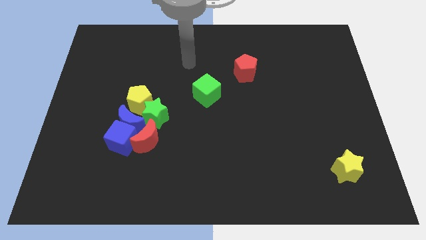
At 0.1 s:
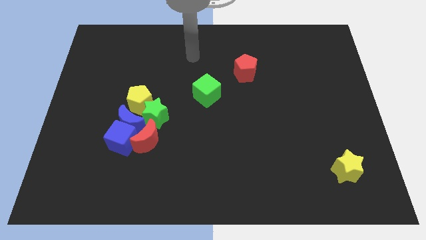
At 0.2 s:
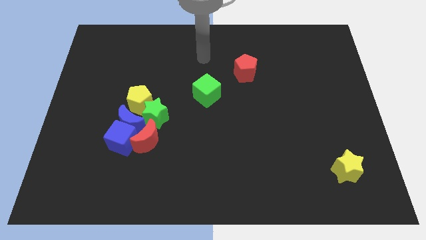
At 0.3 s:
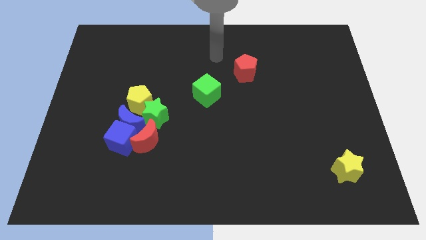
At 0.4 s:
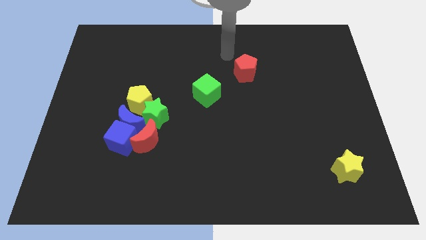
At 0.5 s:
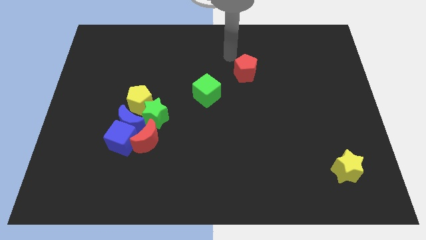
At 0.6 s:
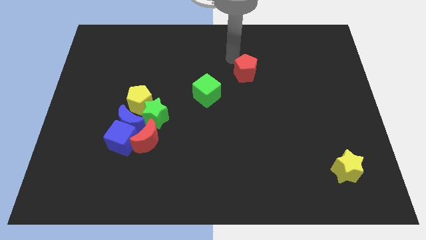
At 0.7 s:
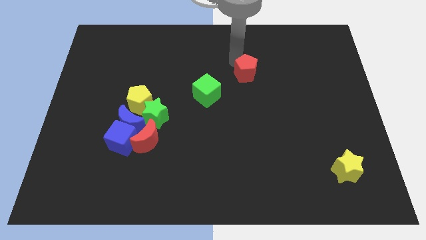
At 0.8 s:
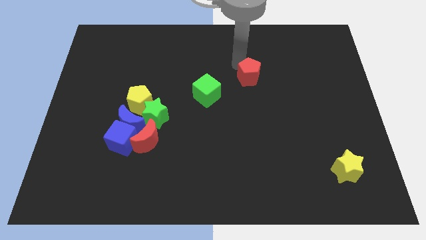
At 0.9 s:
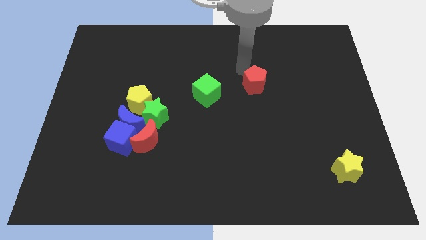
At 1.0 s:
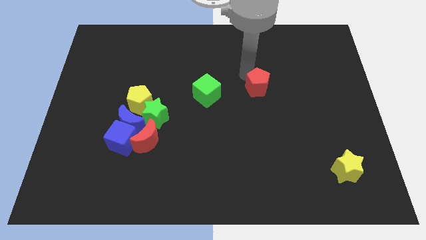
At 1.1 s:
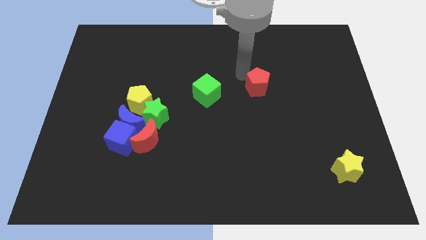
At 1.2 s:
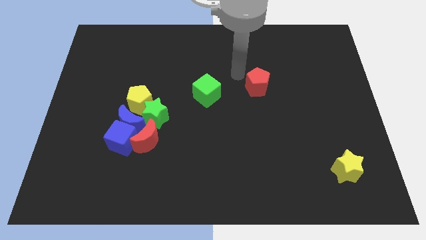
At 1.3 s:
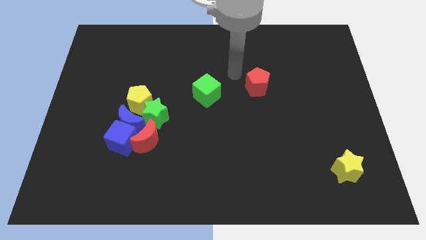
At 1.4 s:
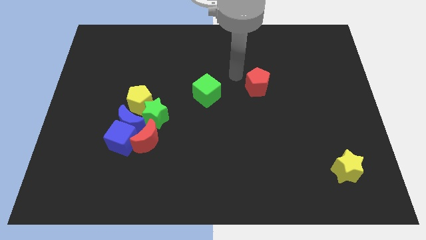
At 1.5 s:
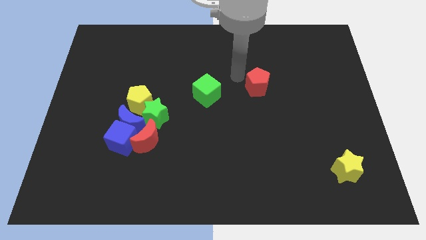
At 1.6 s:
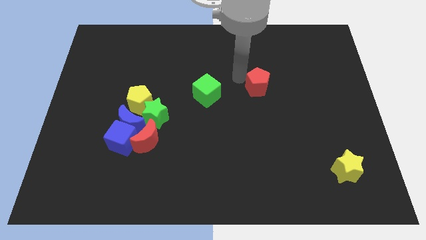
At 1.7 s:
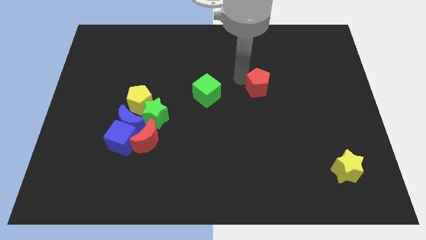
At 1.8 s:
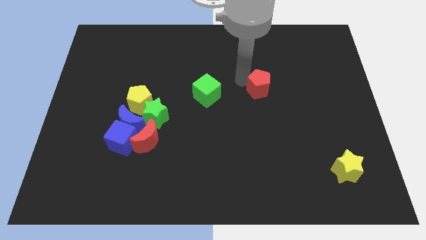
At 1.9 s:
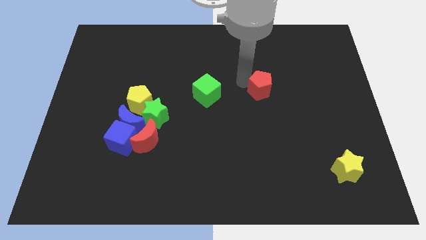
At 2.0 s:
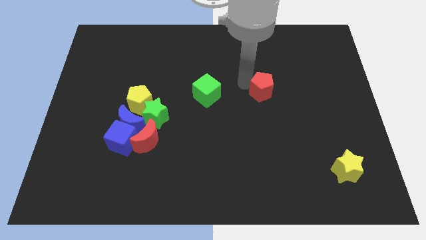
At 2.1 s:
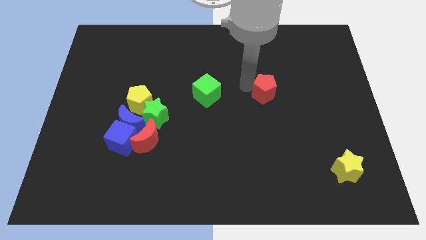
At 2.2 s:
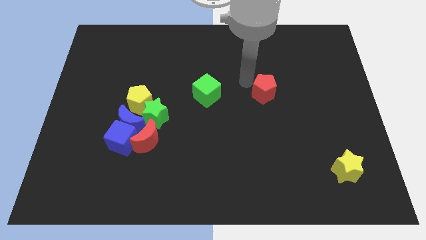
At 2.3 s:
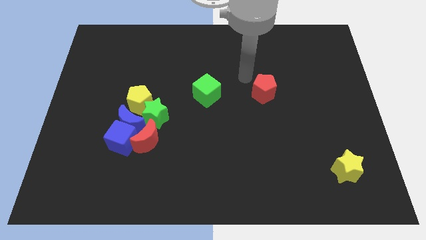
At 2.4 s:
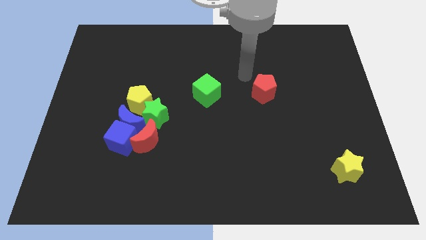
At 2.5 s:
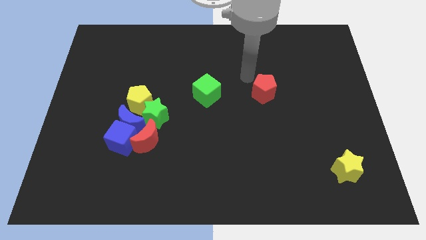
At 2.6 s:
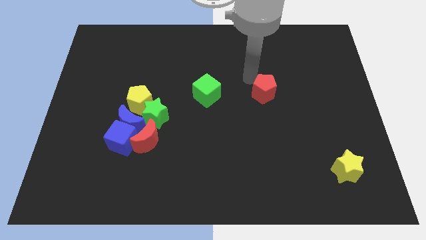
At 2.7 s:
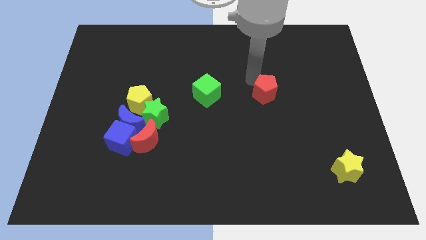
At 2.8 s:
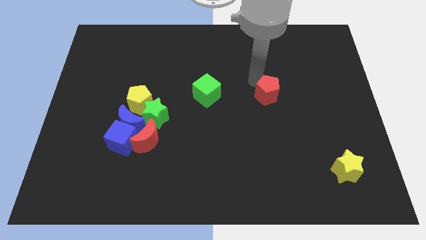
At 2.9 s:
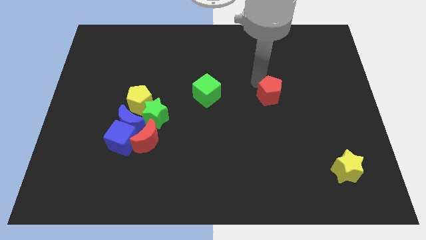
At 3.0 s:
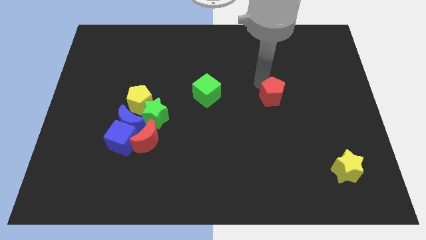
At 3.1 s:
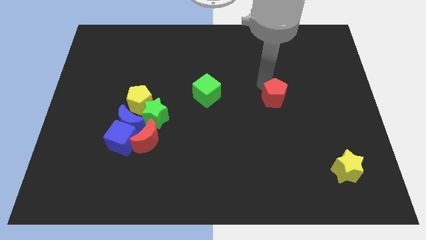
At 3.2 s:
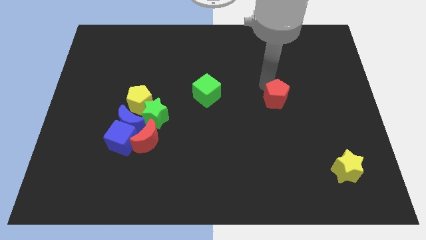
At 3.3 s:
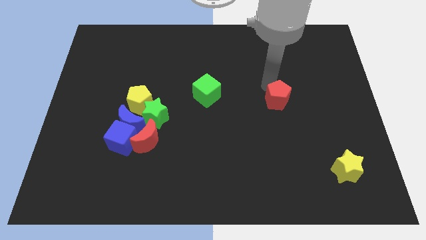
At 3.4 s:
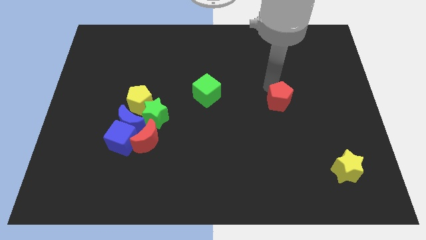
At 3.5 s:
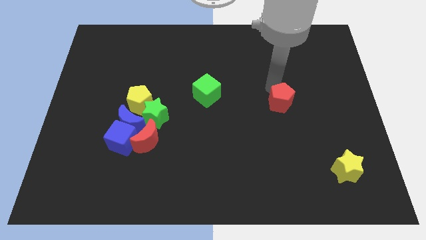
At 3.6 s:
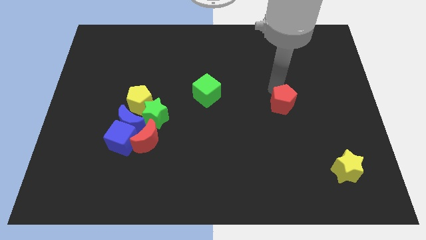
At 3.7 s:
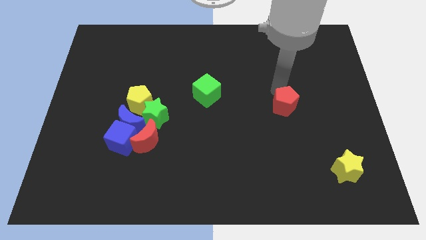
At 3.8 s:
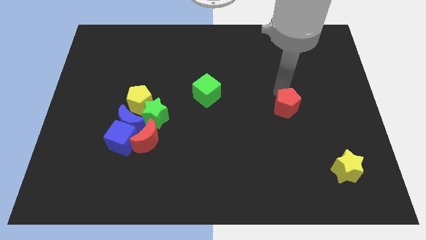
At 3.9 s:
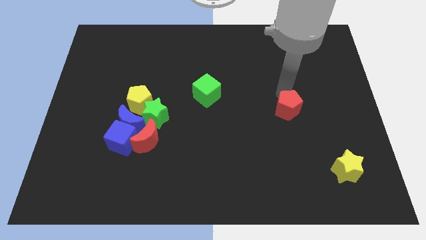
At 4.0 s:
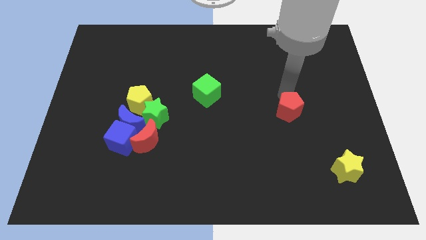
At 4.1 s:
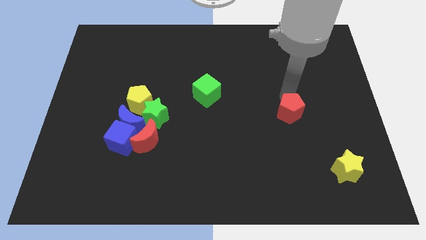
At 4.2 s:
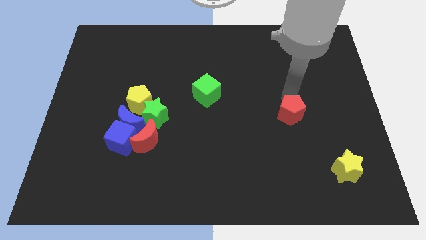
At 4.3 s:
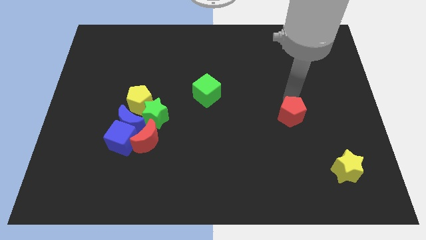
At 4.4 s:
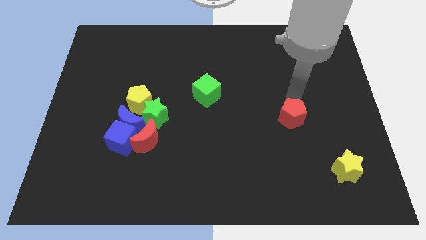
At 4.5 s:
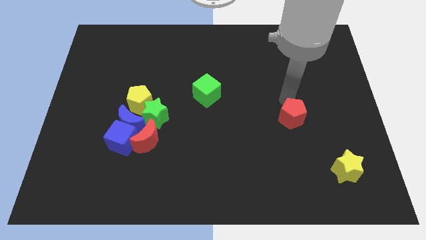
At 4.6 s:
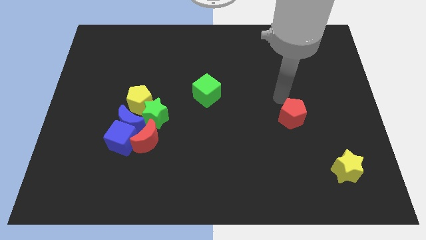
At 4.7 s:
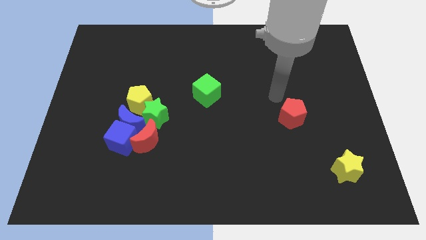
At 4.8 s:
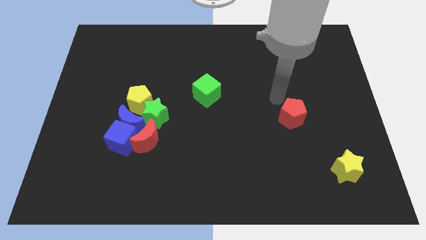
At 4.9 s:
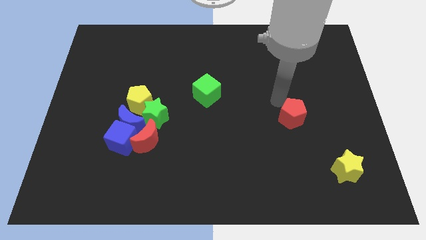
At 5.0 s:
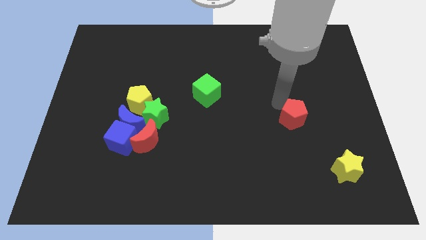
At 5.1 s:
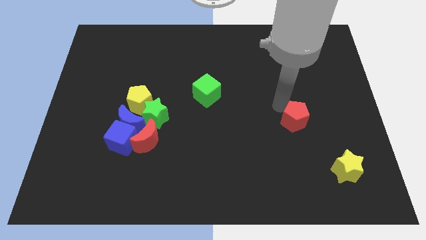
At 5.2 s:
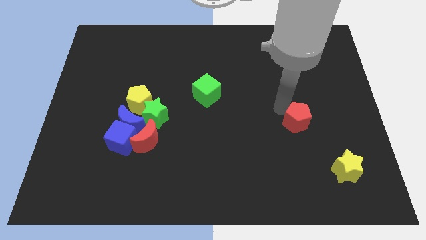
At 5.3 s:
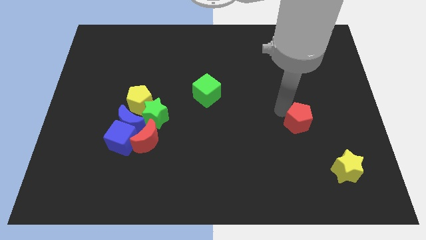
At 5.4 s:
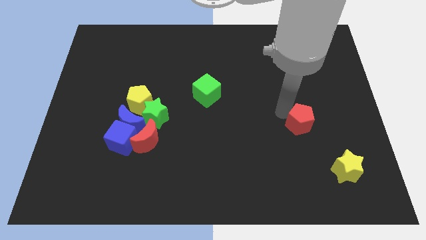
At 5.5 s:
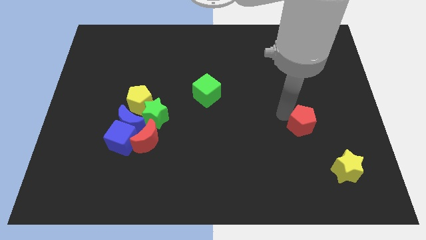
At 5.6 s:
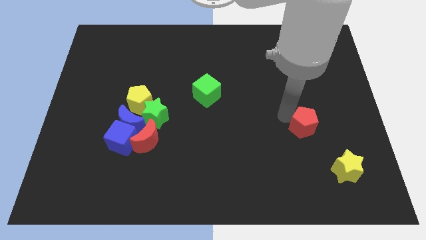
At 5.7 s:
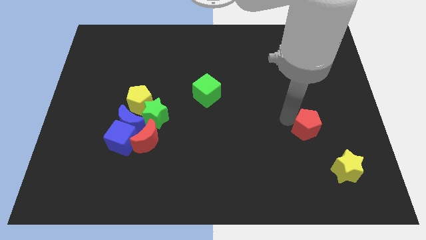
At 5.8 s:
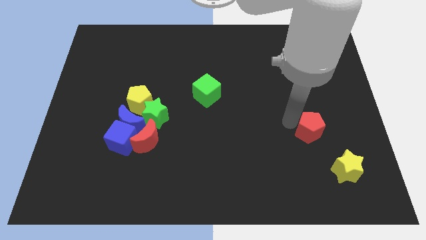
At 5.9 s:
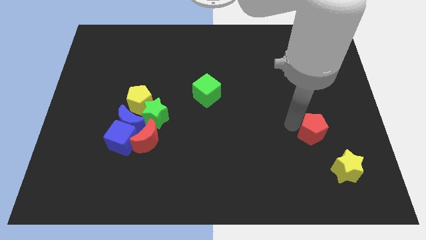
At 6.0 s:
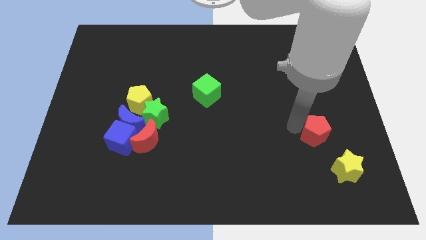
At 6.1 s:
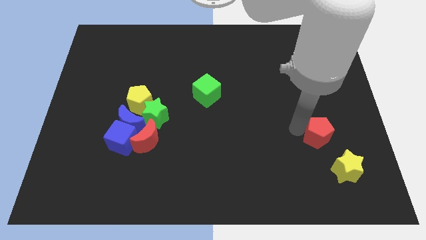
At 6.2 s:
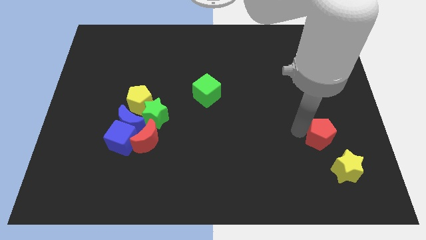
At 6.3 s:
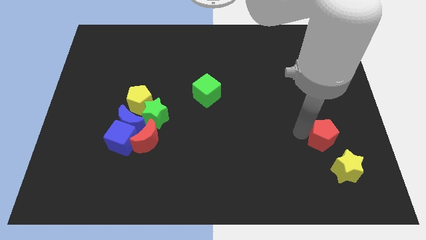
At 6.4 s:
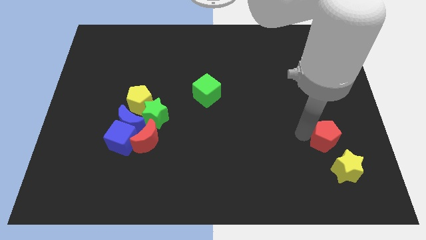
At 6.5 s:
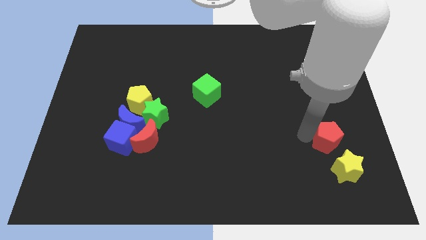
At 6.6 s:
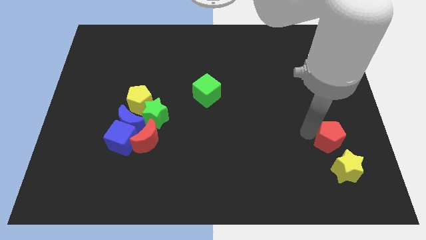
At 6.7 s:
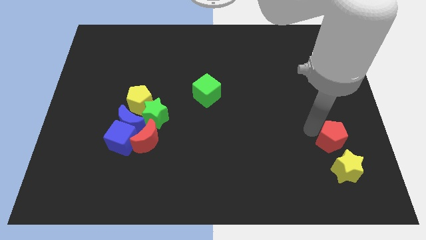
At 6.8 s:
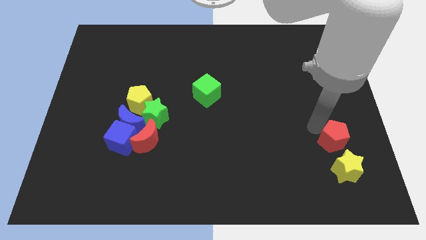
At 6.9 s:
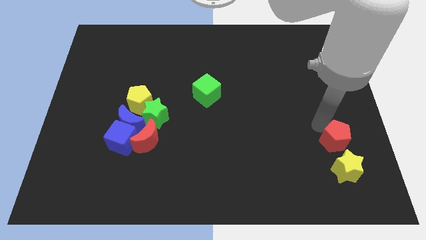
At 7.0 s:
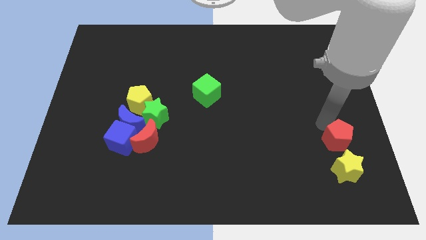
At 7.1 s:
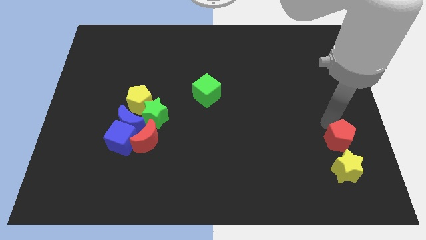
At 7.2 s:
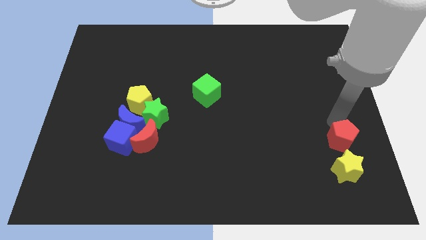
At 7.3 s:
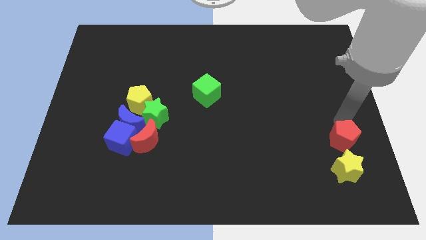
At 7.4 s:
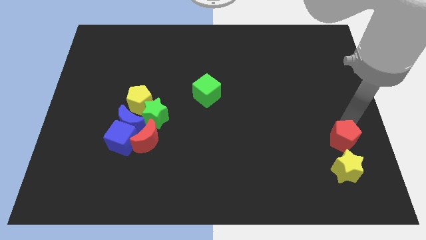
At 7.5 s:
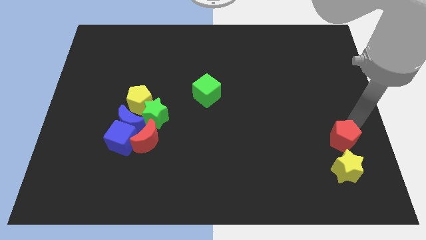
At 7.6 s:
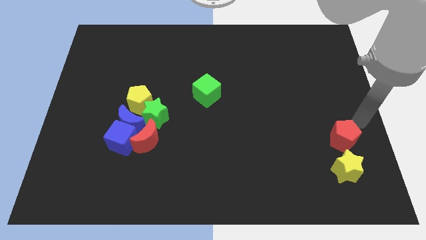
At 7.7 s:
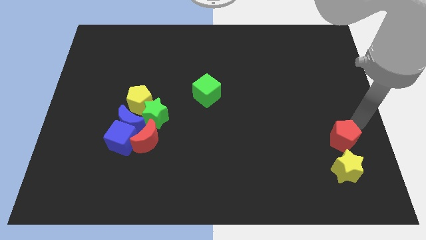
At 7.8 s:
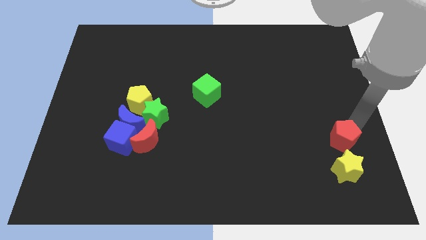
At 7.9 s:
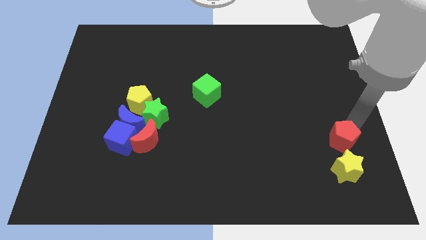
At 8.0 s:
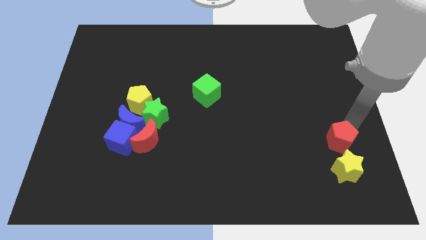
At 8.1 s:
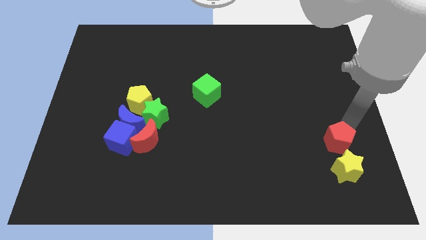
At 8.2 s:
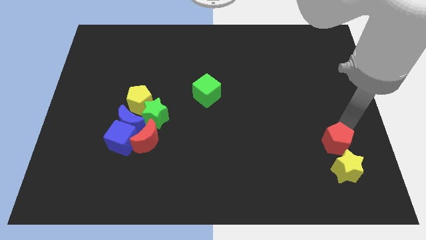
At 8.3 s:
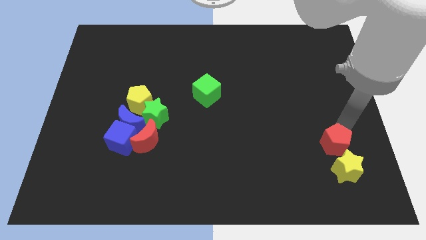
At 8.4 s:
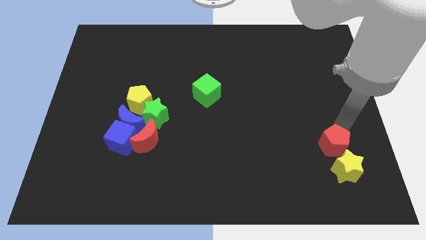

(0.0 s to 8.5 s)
move the red pentagon next to the yellow star
